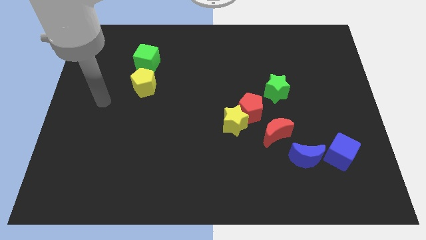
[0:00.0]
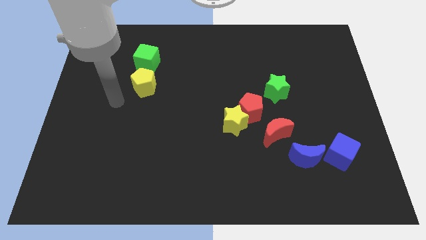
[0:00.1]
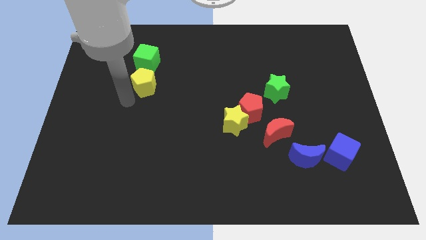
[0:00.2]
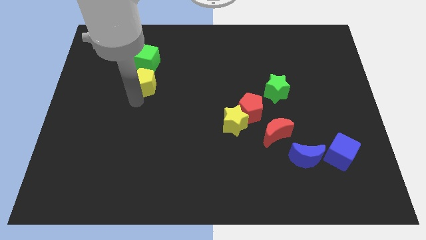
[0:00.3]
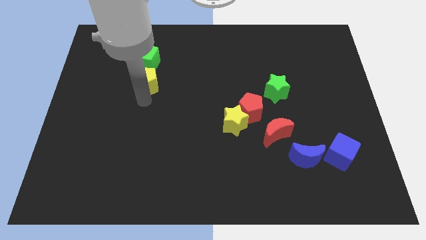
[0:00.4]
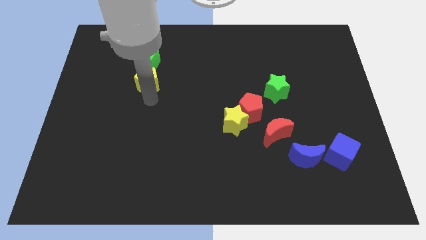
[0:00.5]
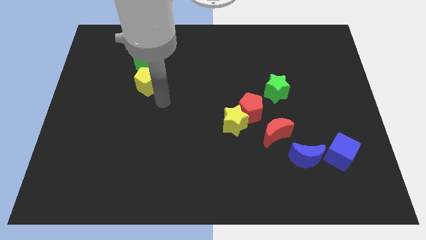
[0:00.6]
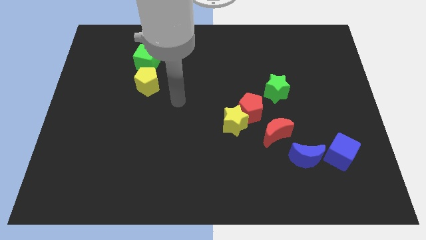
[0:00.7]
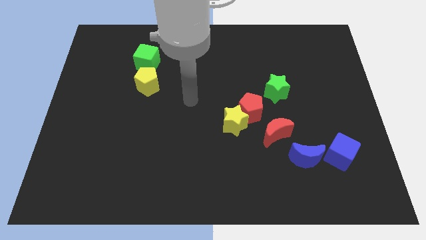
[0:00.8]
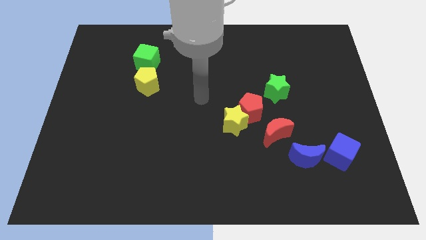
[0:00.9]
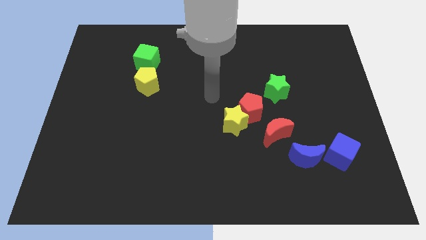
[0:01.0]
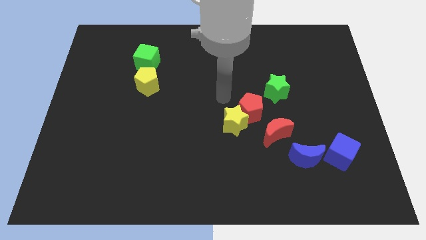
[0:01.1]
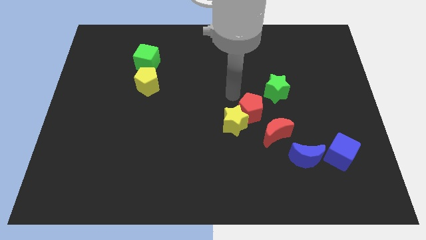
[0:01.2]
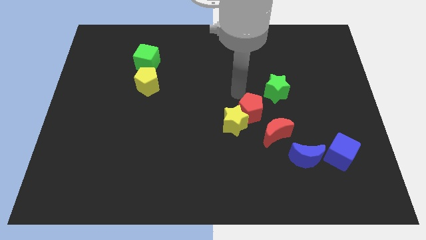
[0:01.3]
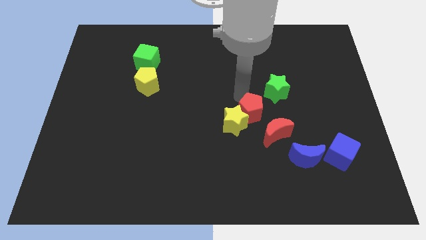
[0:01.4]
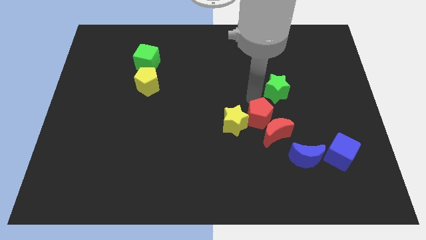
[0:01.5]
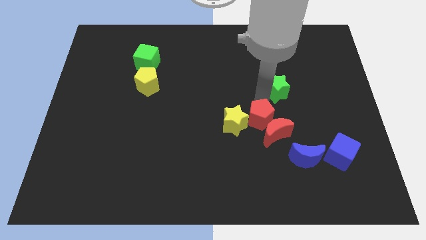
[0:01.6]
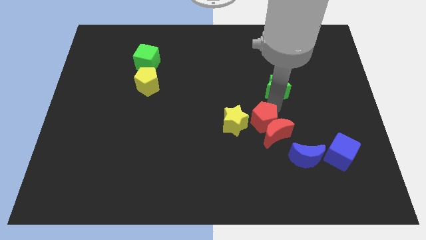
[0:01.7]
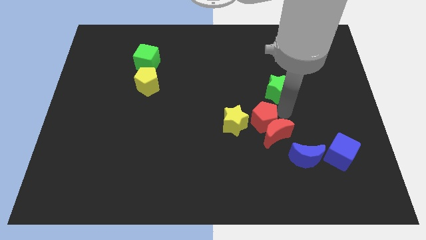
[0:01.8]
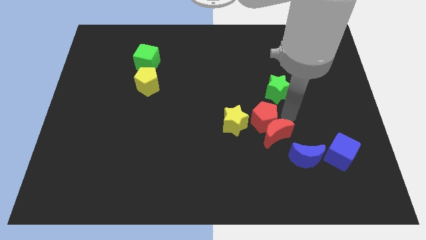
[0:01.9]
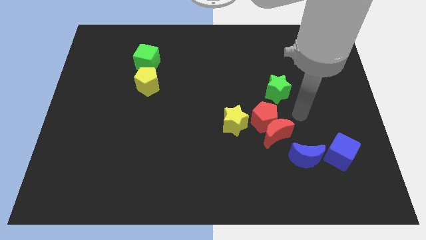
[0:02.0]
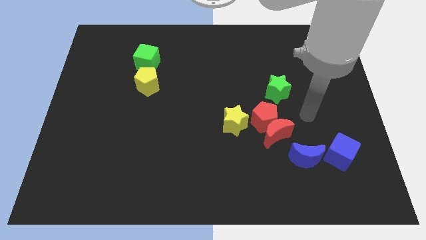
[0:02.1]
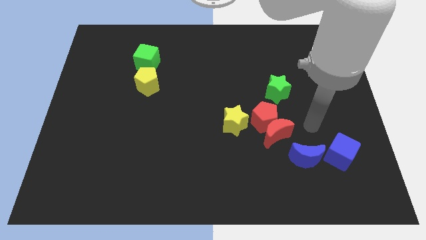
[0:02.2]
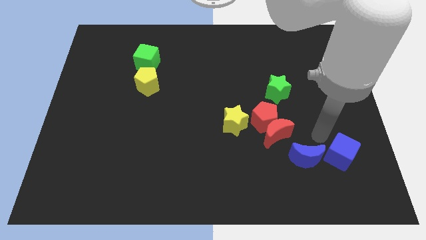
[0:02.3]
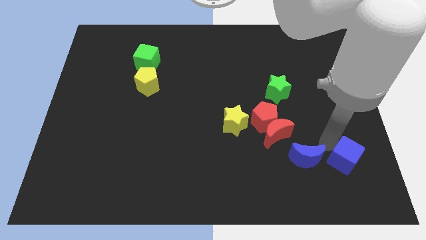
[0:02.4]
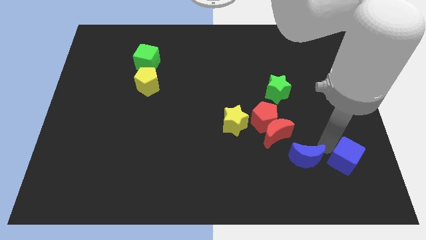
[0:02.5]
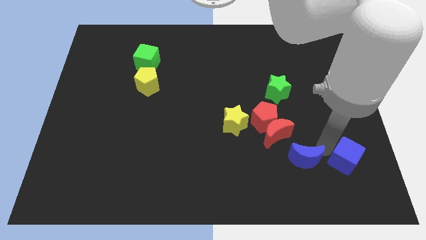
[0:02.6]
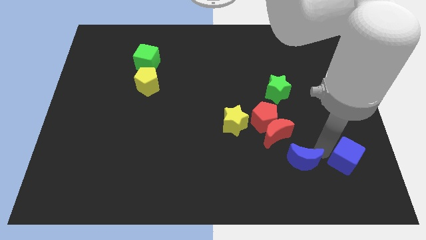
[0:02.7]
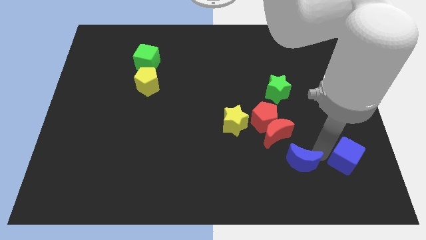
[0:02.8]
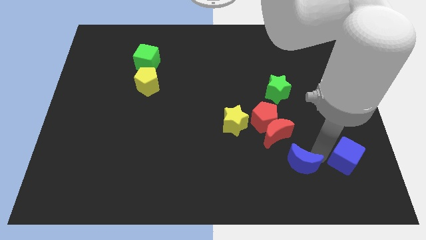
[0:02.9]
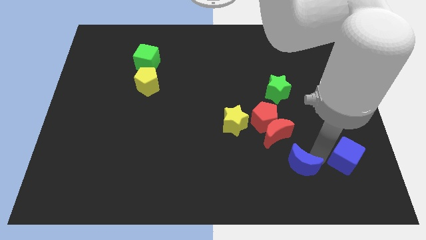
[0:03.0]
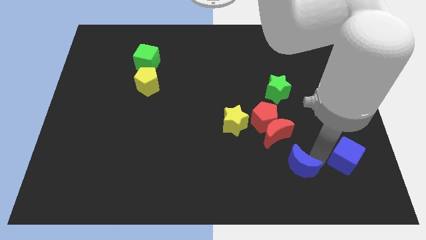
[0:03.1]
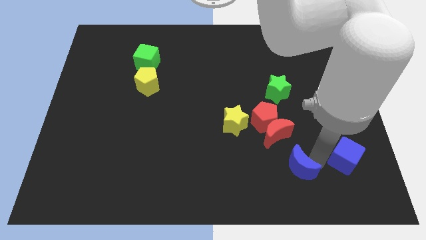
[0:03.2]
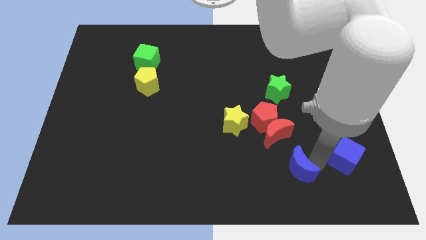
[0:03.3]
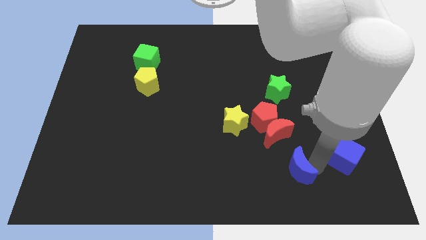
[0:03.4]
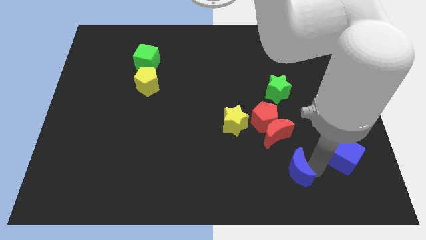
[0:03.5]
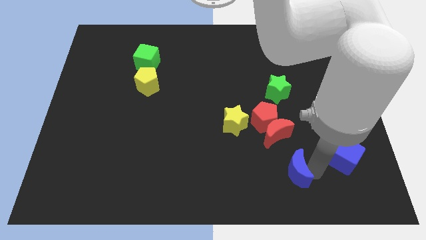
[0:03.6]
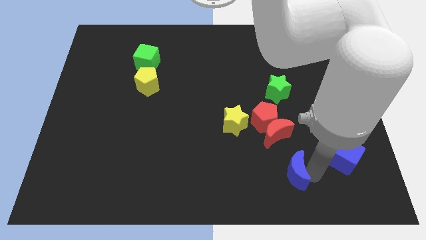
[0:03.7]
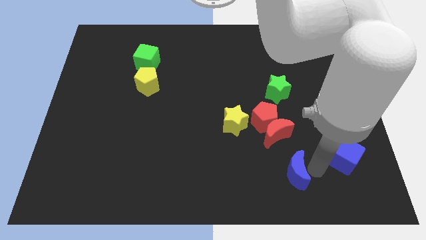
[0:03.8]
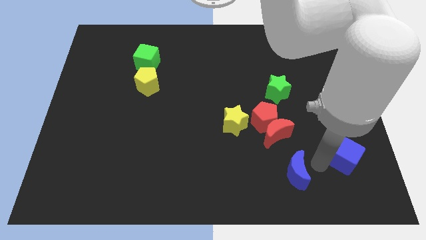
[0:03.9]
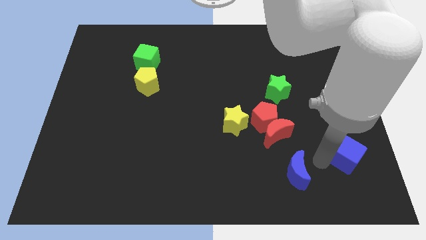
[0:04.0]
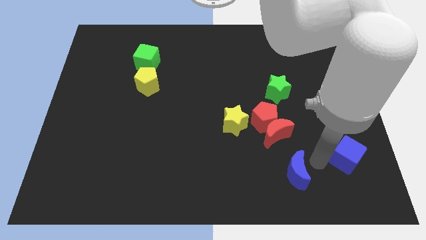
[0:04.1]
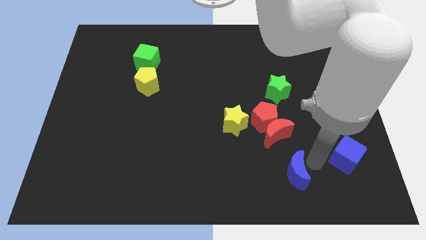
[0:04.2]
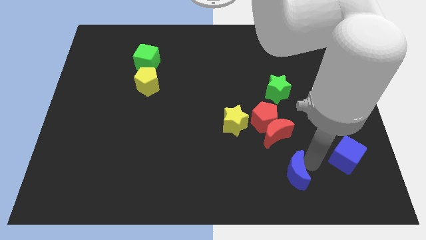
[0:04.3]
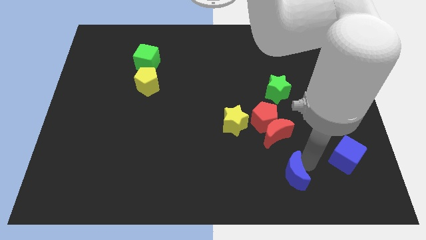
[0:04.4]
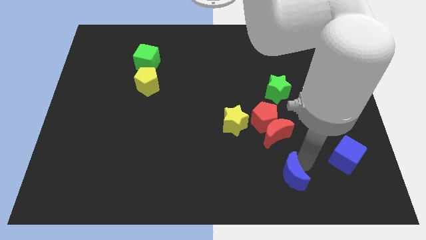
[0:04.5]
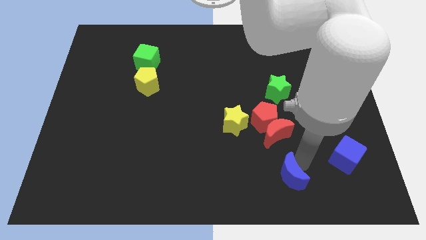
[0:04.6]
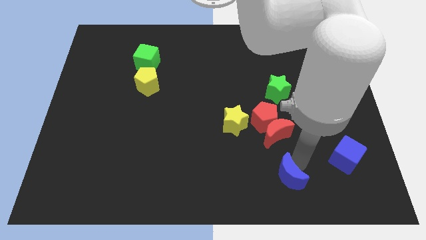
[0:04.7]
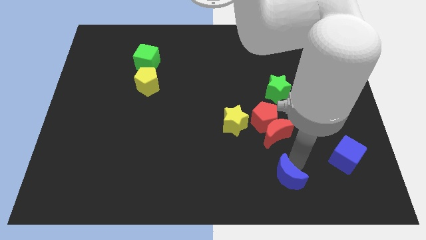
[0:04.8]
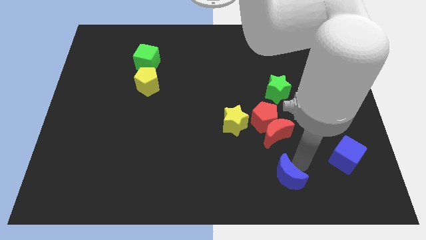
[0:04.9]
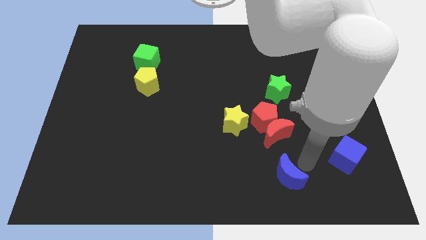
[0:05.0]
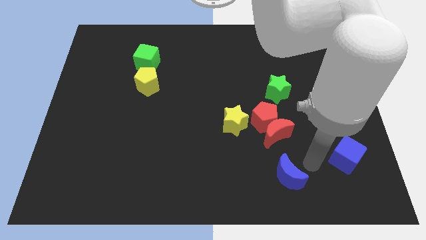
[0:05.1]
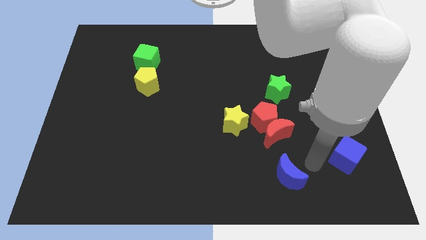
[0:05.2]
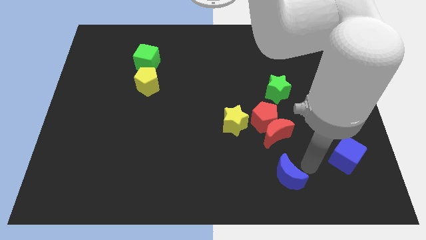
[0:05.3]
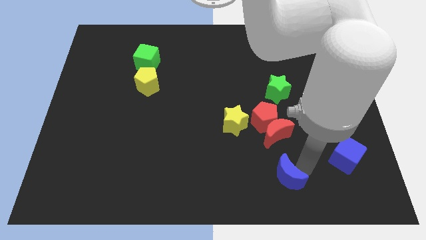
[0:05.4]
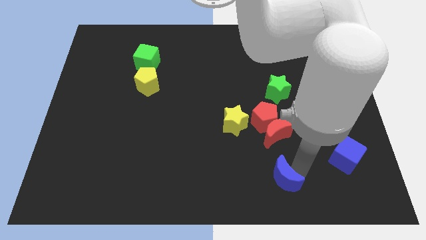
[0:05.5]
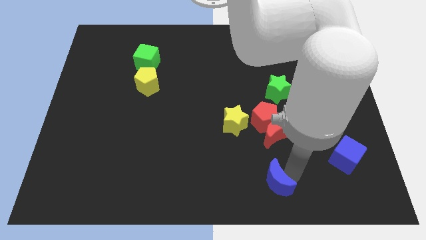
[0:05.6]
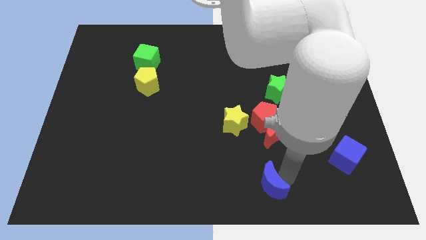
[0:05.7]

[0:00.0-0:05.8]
slide the blue moon to the bottom side

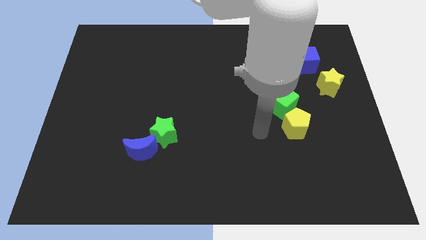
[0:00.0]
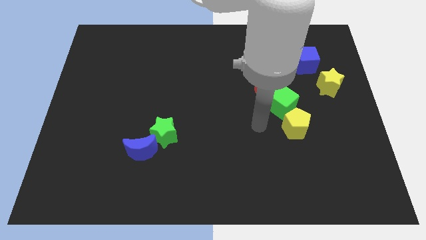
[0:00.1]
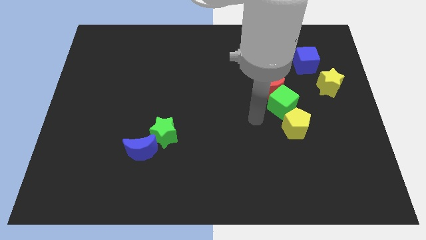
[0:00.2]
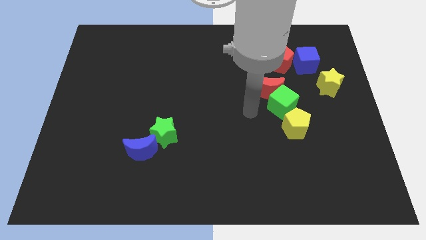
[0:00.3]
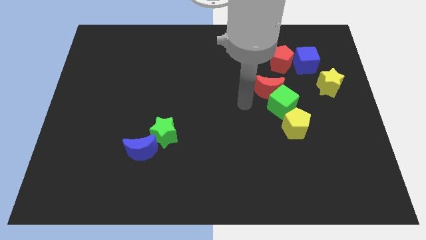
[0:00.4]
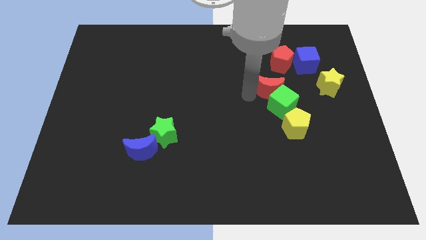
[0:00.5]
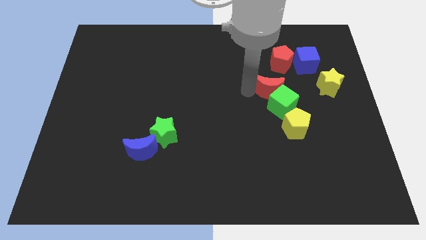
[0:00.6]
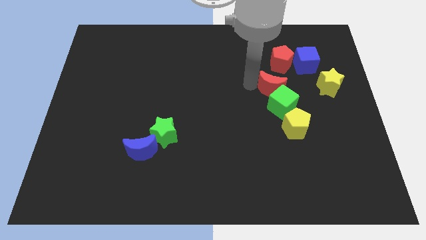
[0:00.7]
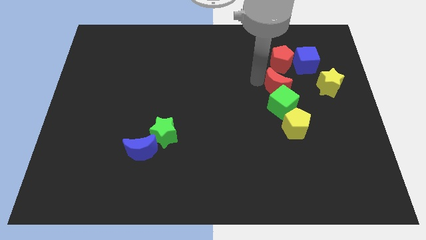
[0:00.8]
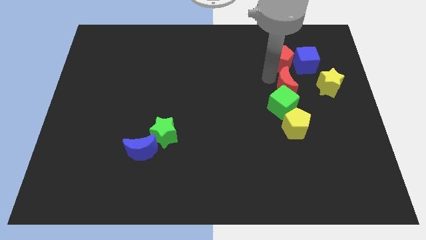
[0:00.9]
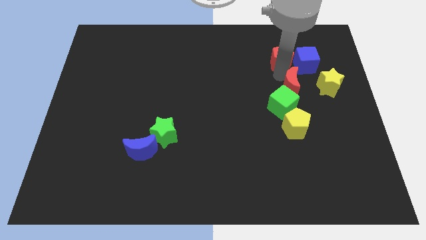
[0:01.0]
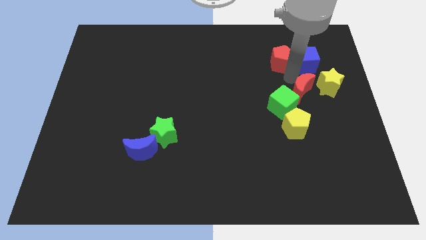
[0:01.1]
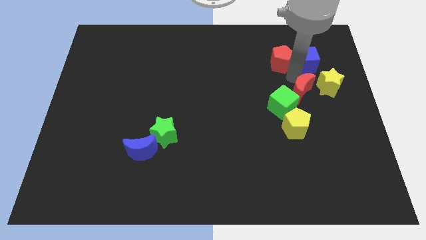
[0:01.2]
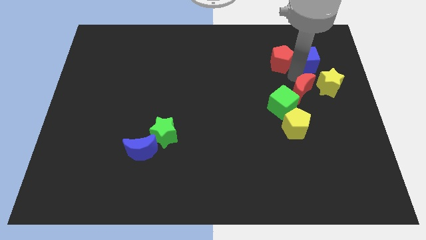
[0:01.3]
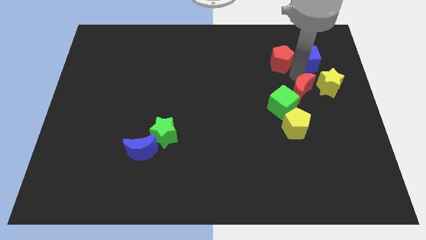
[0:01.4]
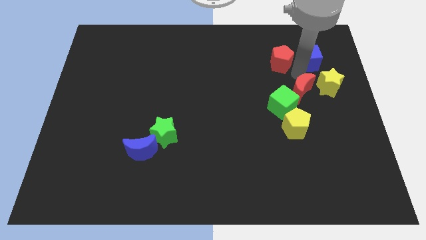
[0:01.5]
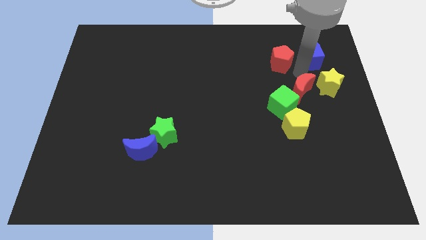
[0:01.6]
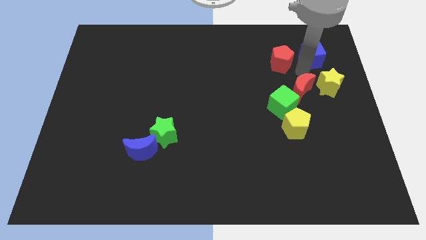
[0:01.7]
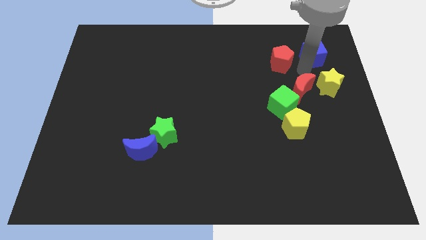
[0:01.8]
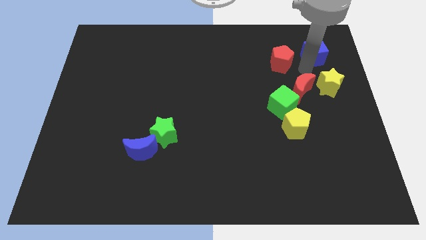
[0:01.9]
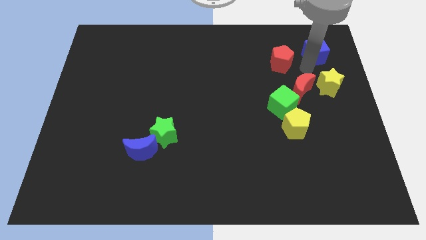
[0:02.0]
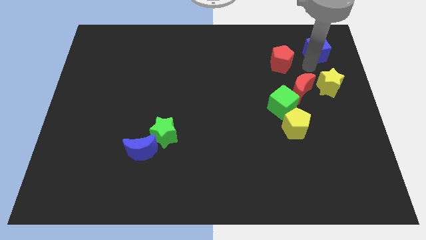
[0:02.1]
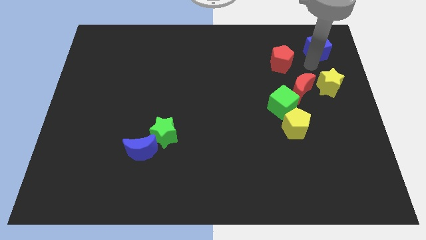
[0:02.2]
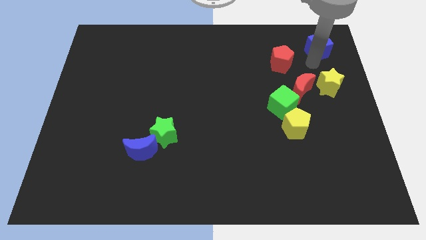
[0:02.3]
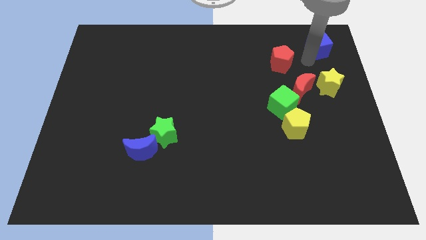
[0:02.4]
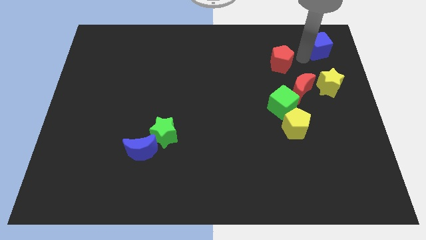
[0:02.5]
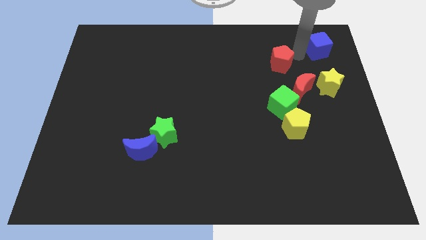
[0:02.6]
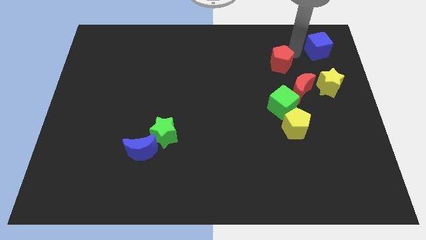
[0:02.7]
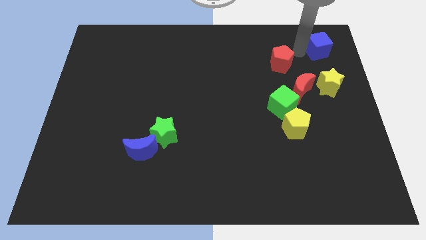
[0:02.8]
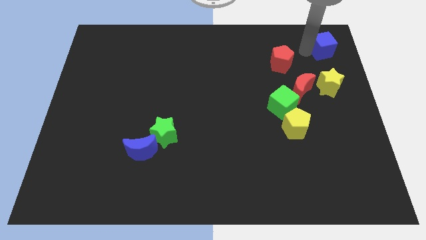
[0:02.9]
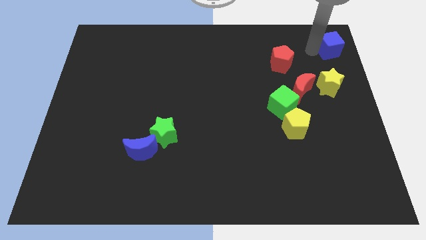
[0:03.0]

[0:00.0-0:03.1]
move the blue cube to the top right
